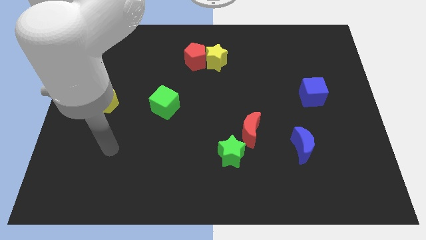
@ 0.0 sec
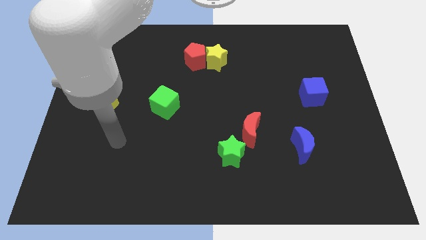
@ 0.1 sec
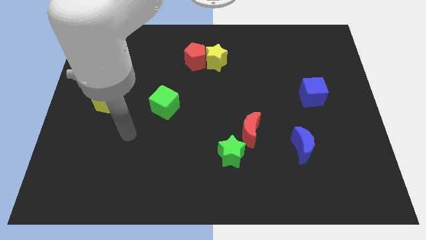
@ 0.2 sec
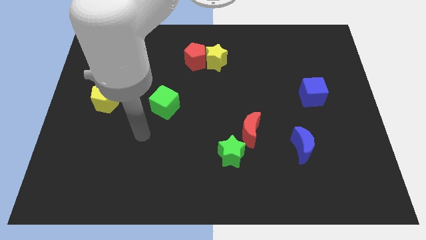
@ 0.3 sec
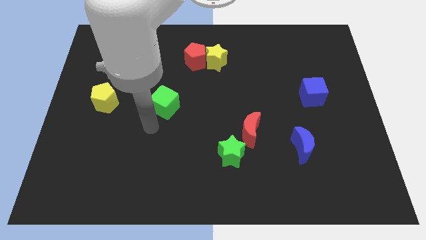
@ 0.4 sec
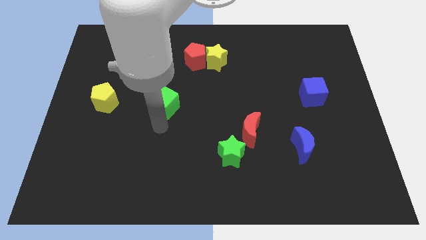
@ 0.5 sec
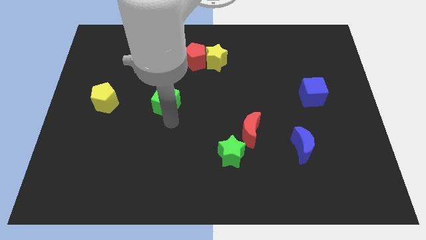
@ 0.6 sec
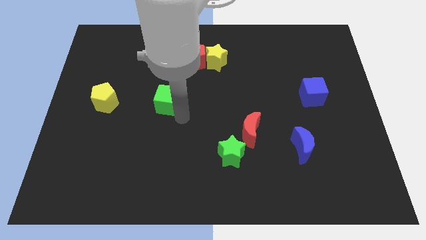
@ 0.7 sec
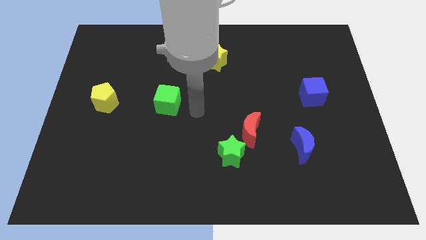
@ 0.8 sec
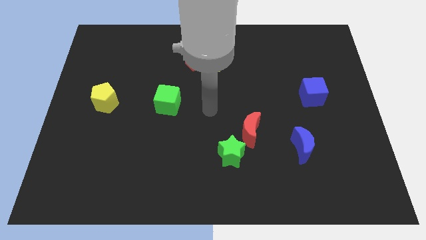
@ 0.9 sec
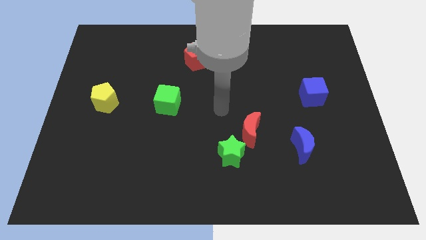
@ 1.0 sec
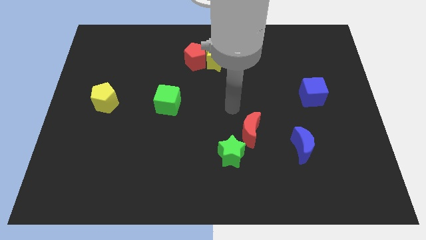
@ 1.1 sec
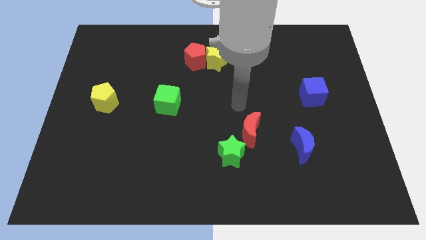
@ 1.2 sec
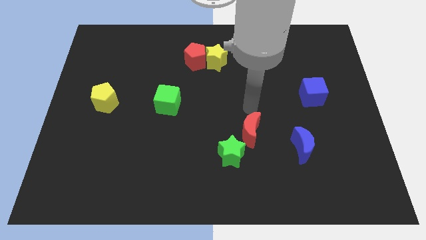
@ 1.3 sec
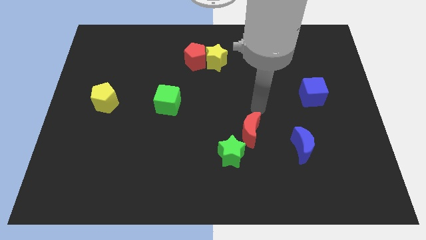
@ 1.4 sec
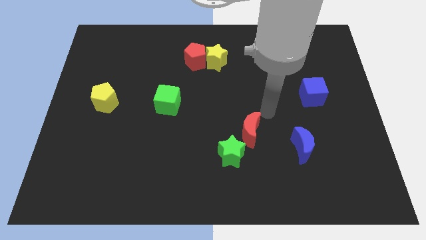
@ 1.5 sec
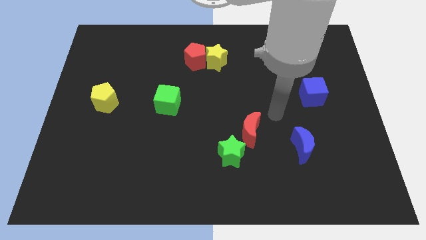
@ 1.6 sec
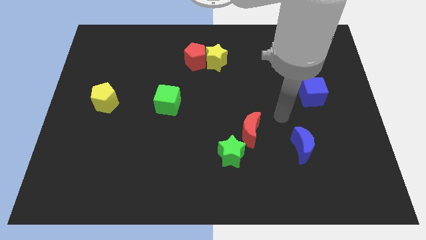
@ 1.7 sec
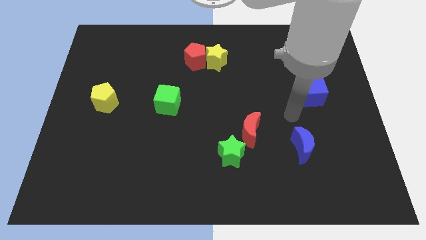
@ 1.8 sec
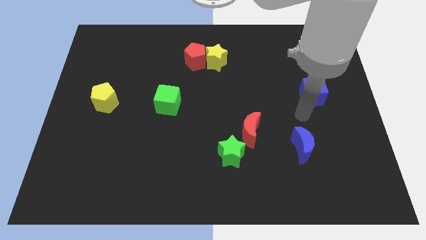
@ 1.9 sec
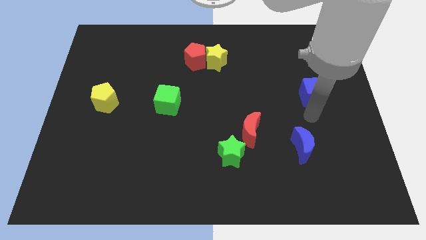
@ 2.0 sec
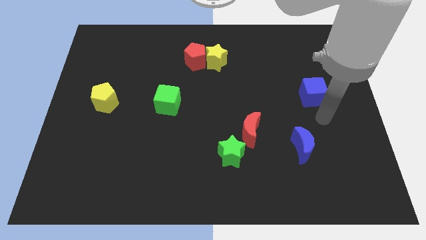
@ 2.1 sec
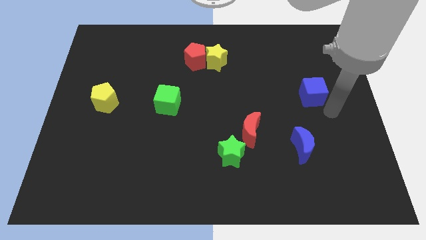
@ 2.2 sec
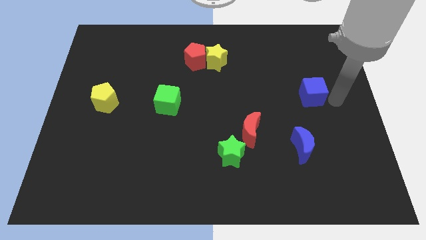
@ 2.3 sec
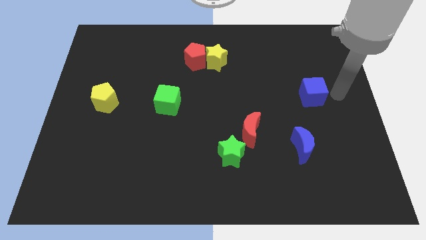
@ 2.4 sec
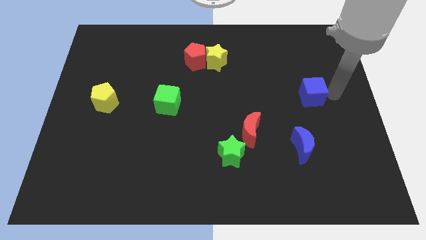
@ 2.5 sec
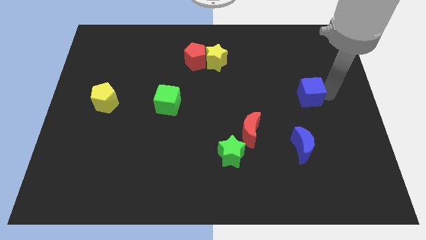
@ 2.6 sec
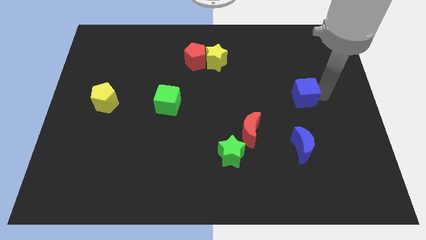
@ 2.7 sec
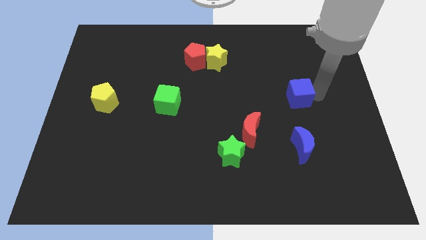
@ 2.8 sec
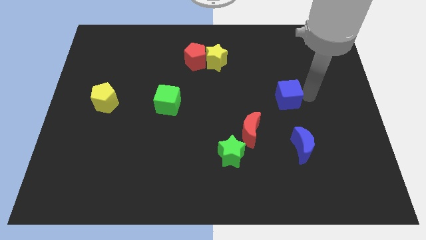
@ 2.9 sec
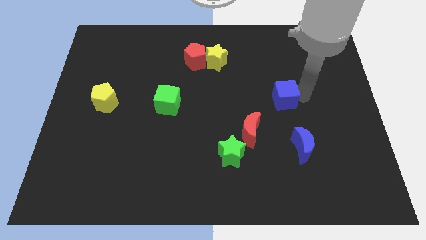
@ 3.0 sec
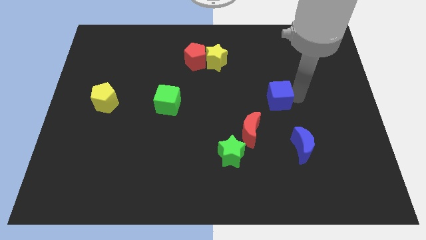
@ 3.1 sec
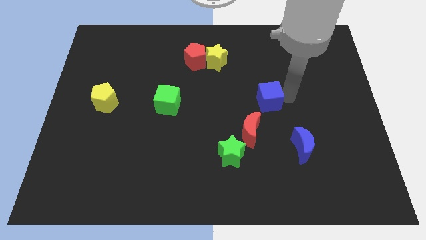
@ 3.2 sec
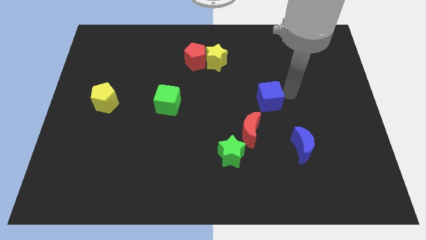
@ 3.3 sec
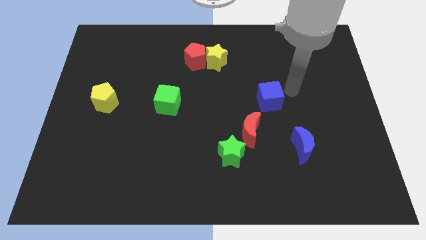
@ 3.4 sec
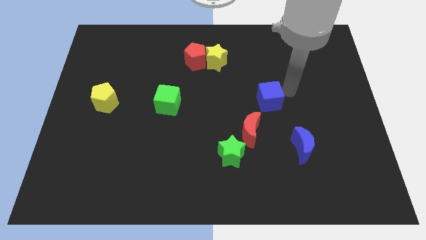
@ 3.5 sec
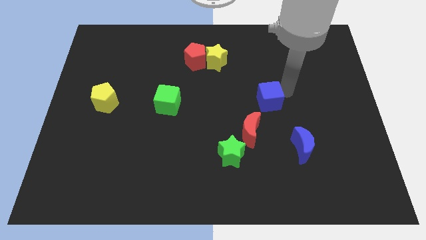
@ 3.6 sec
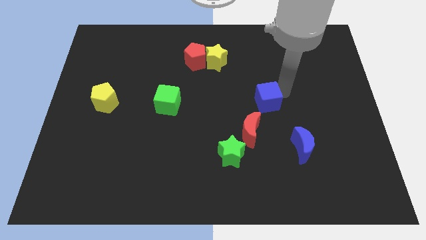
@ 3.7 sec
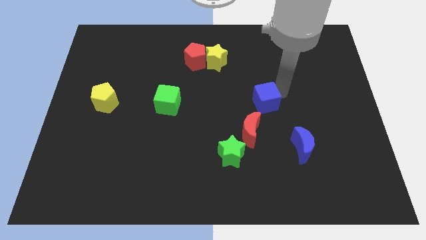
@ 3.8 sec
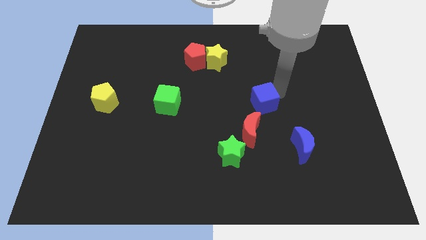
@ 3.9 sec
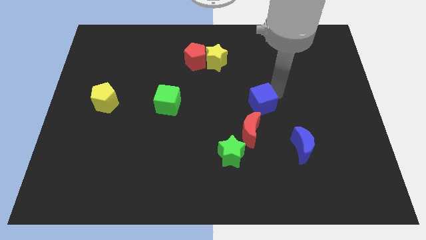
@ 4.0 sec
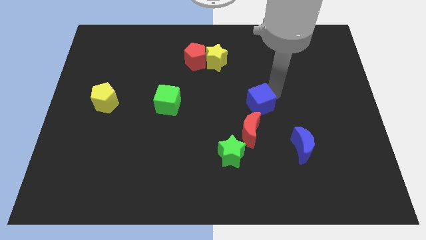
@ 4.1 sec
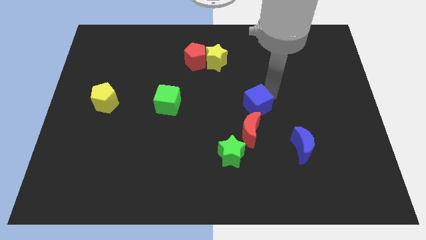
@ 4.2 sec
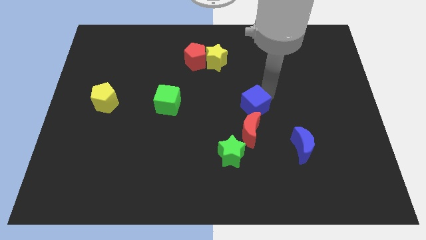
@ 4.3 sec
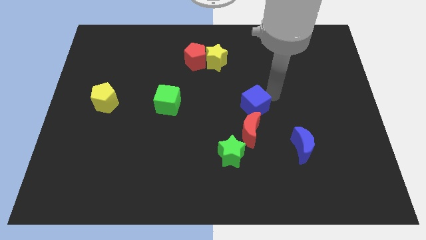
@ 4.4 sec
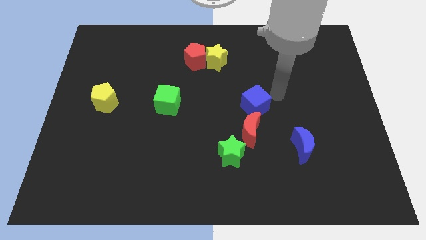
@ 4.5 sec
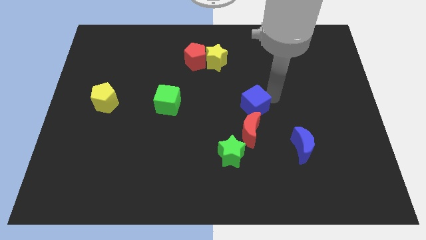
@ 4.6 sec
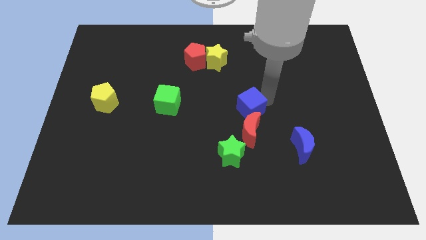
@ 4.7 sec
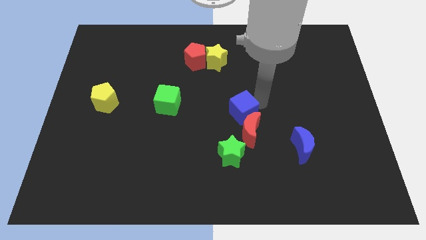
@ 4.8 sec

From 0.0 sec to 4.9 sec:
slide the blue cube to the top side of the green star

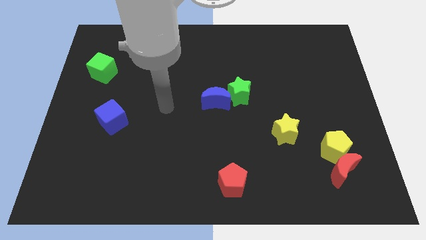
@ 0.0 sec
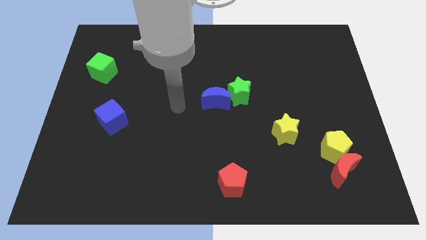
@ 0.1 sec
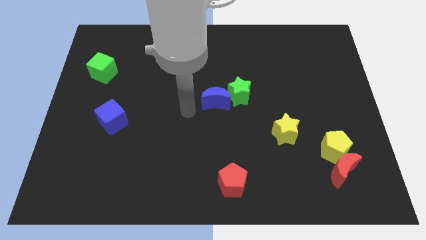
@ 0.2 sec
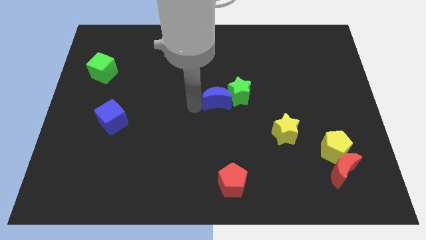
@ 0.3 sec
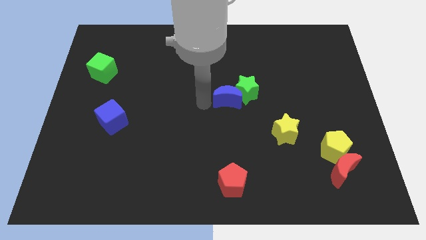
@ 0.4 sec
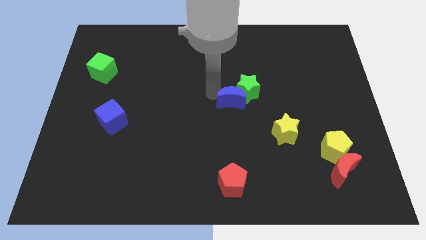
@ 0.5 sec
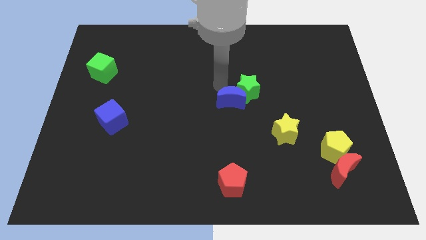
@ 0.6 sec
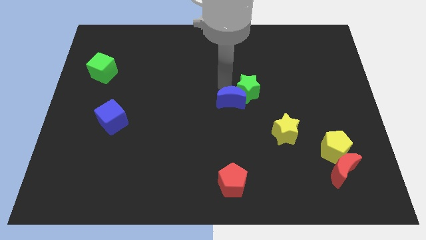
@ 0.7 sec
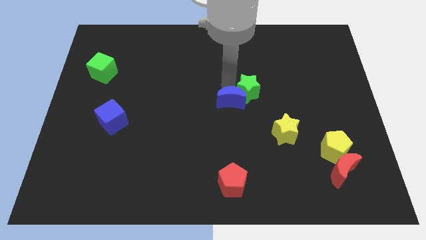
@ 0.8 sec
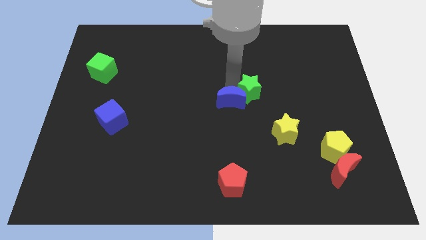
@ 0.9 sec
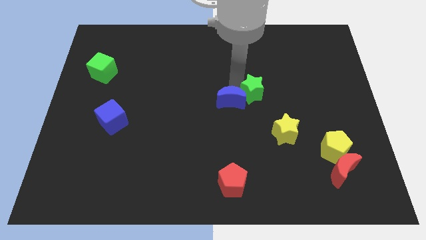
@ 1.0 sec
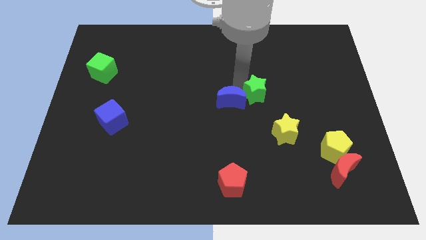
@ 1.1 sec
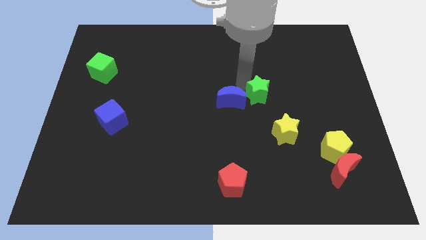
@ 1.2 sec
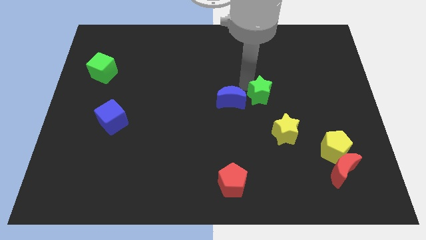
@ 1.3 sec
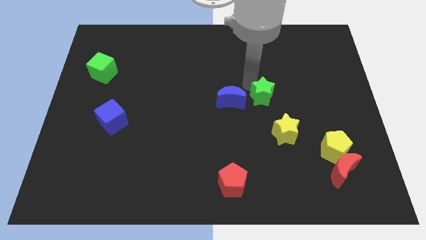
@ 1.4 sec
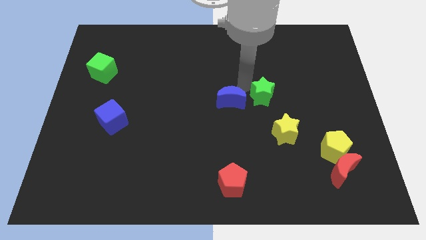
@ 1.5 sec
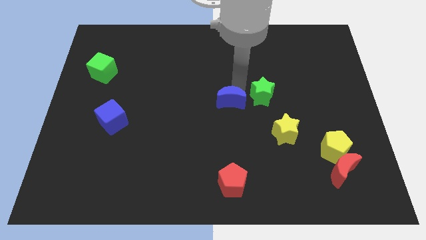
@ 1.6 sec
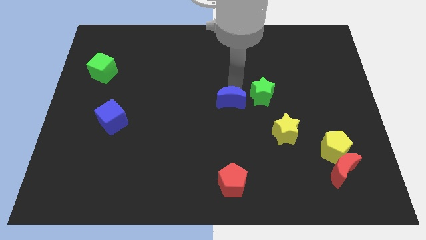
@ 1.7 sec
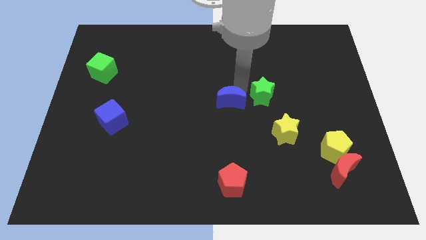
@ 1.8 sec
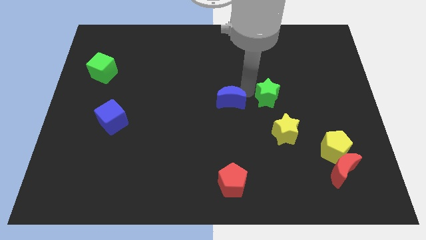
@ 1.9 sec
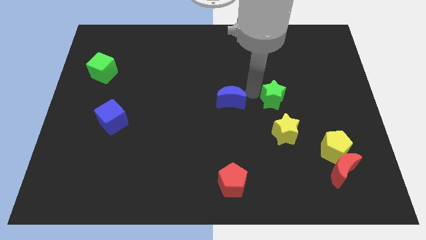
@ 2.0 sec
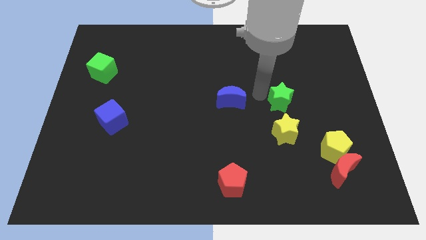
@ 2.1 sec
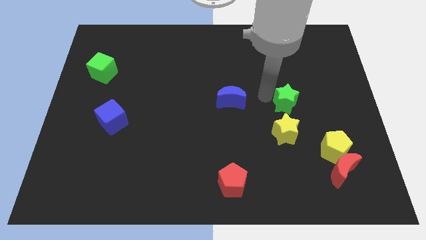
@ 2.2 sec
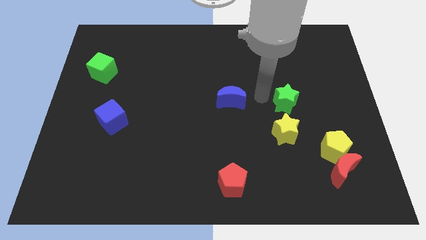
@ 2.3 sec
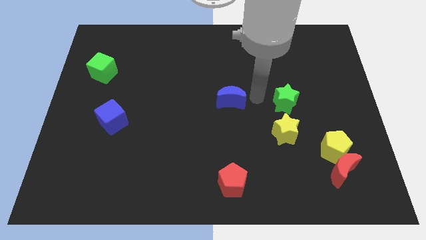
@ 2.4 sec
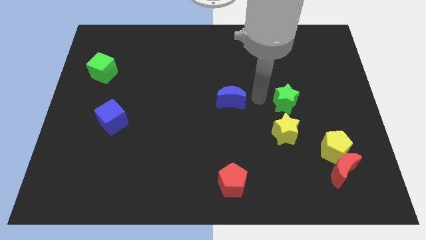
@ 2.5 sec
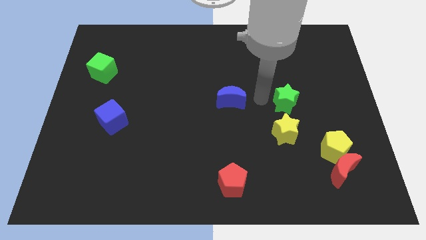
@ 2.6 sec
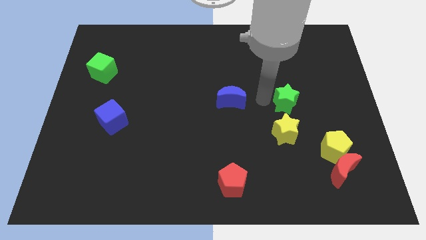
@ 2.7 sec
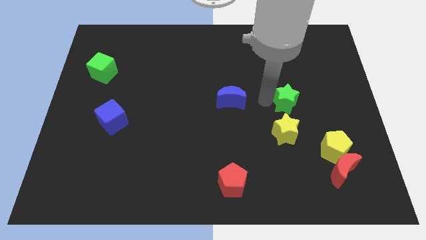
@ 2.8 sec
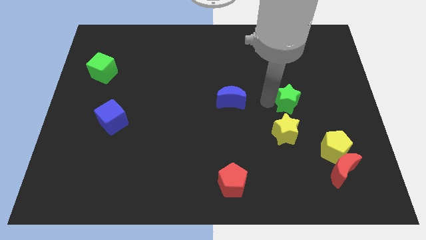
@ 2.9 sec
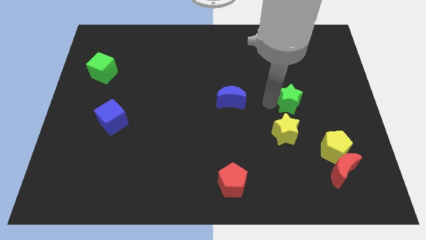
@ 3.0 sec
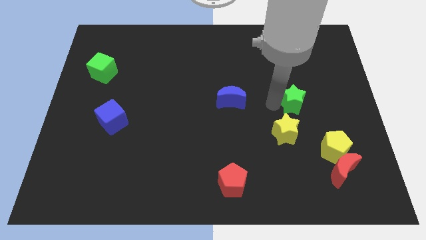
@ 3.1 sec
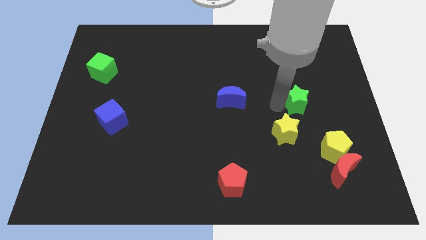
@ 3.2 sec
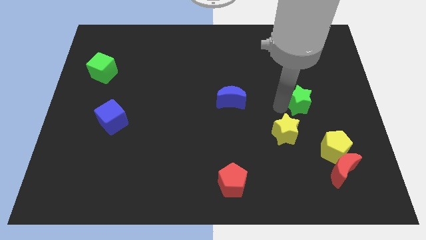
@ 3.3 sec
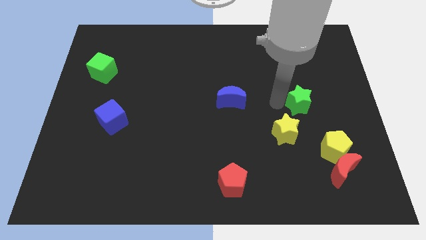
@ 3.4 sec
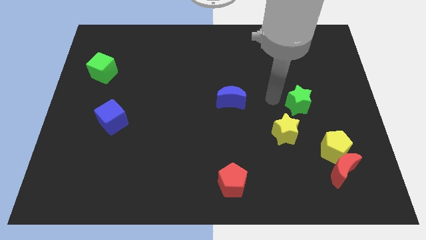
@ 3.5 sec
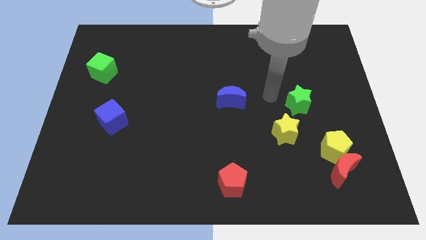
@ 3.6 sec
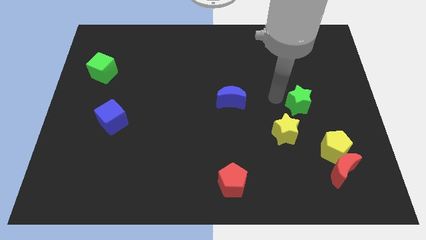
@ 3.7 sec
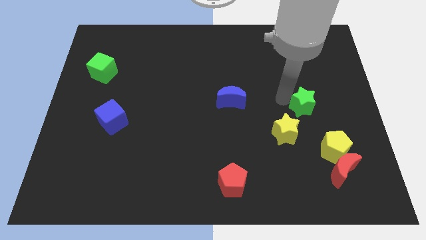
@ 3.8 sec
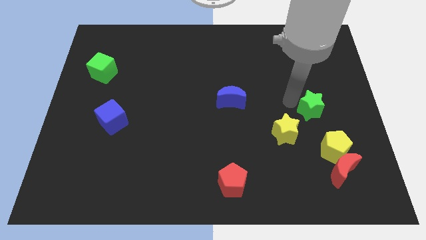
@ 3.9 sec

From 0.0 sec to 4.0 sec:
slide the green star to the top of the yellow pentagon
